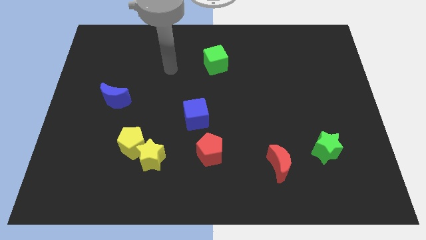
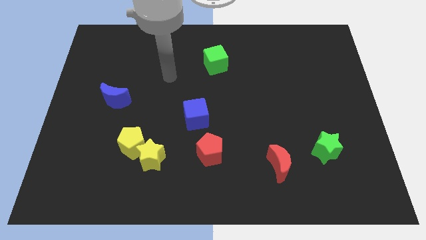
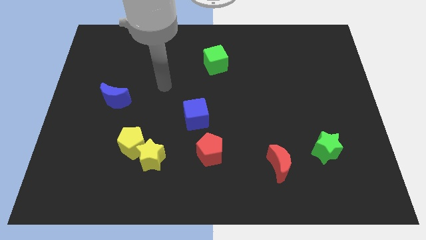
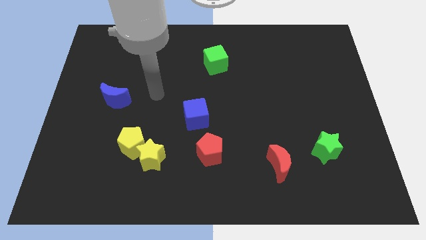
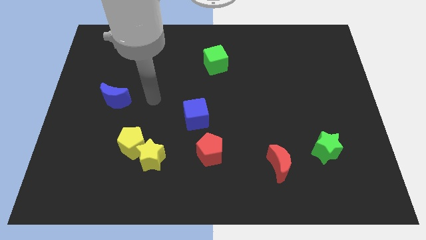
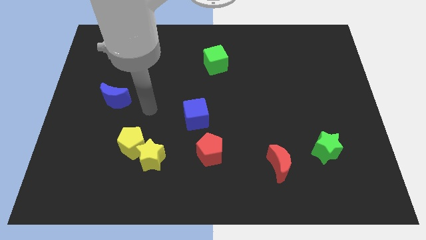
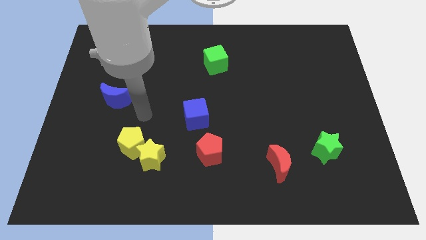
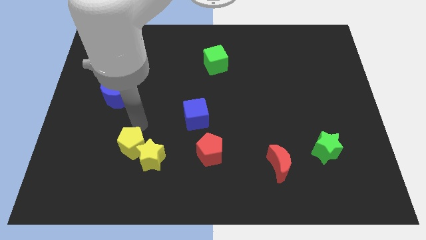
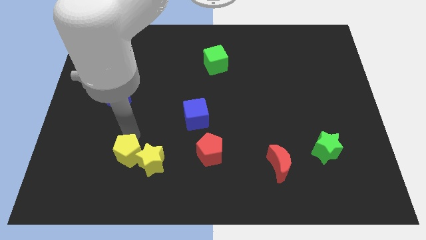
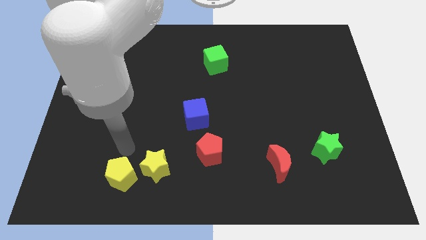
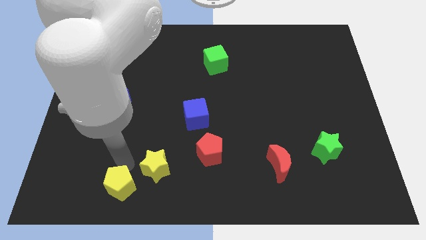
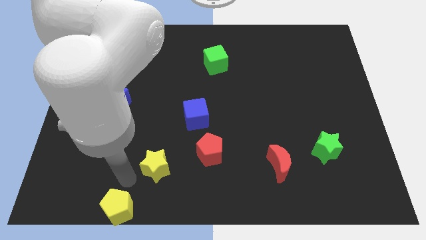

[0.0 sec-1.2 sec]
move the yellow star away from the yellow pentagon

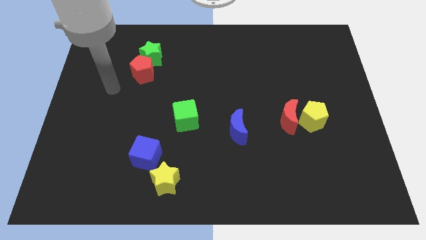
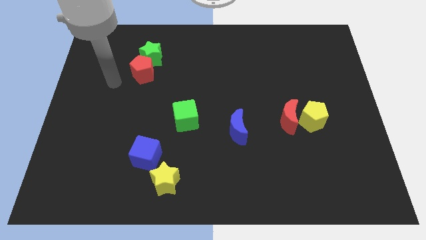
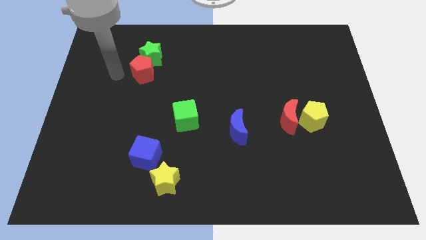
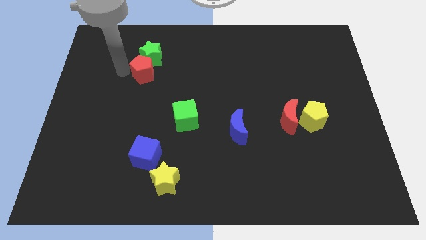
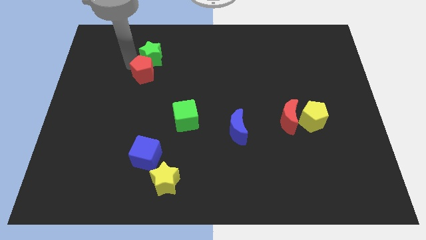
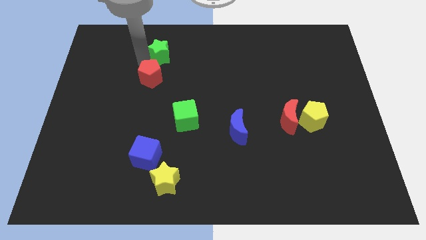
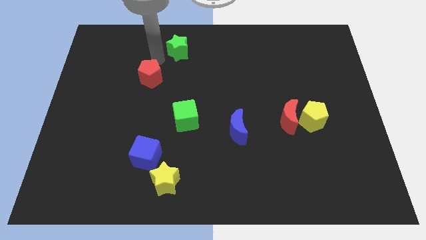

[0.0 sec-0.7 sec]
move the red pentagon away from the green star

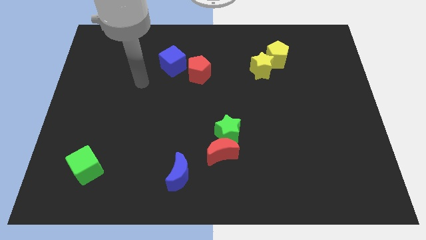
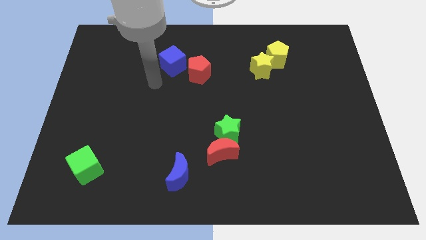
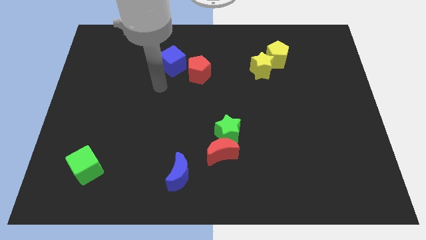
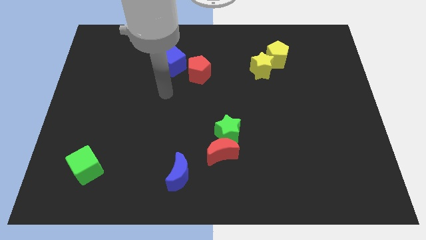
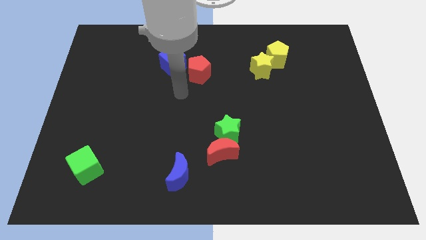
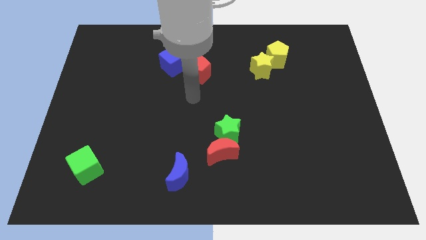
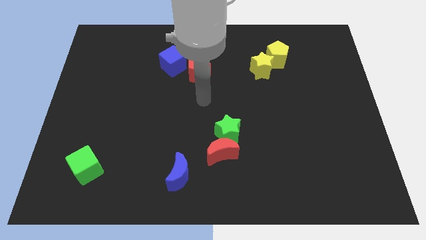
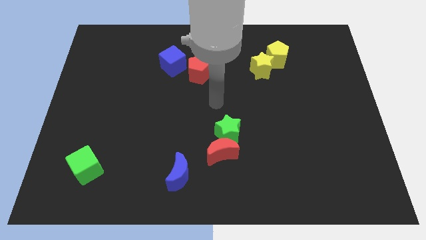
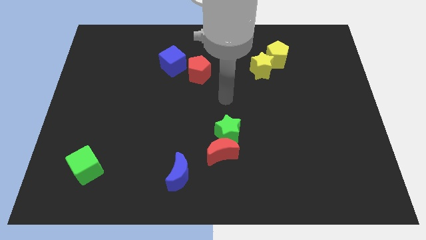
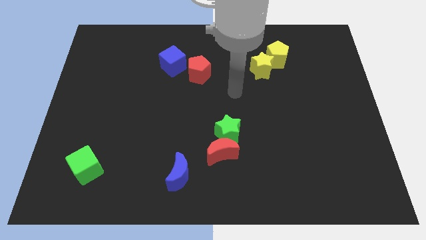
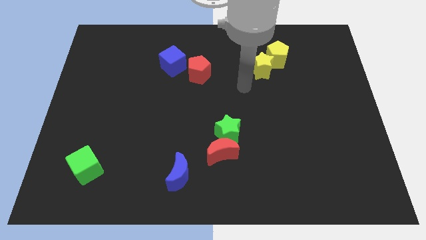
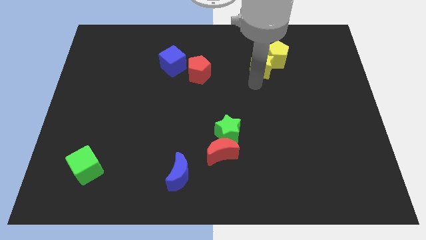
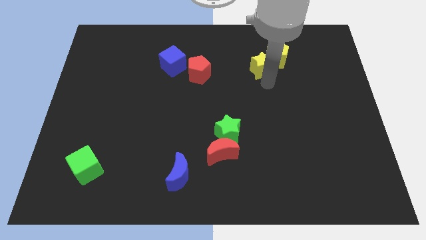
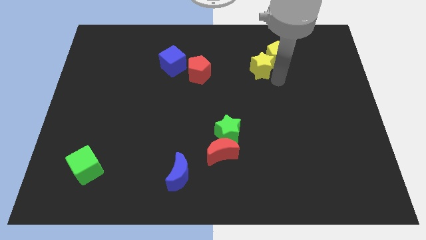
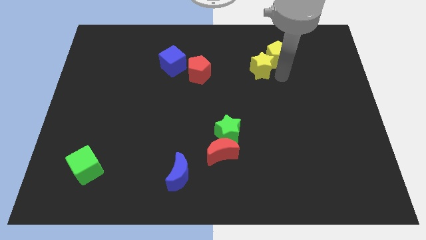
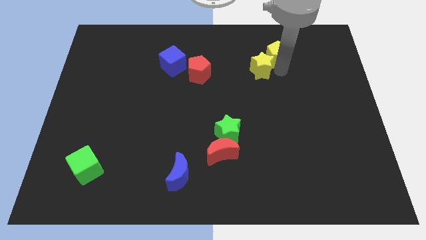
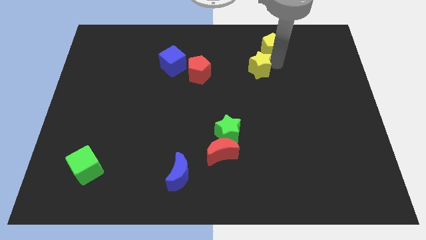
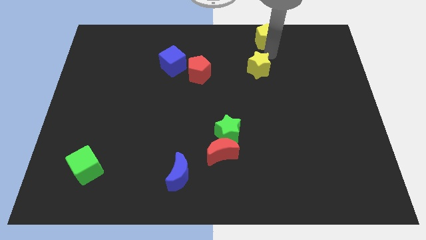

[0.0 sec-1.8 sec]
pull the yellow star apart from the yellow pentagon

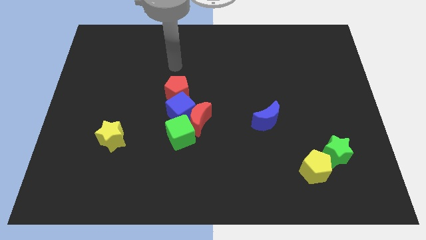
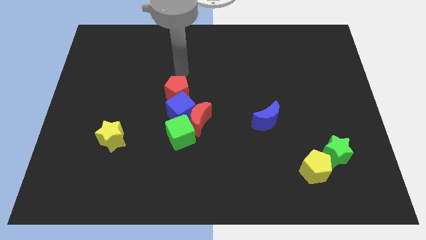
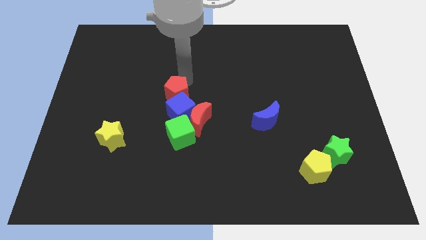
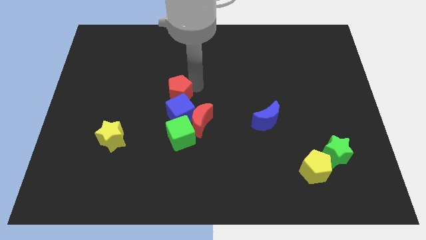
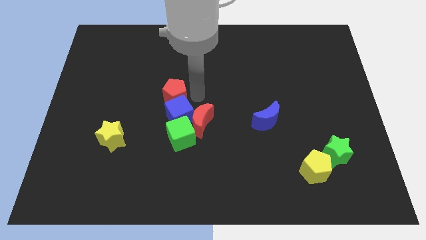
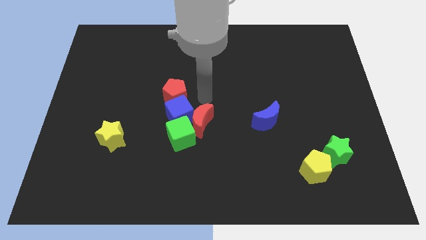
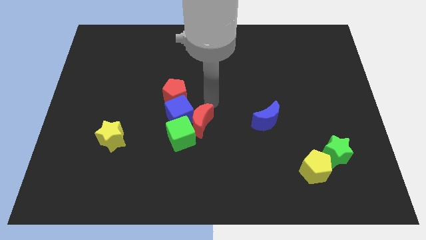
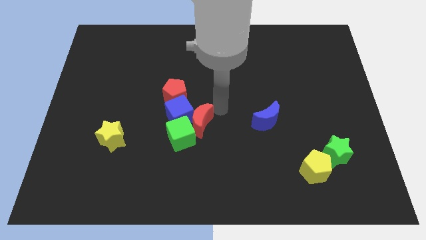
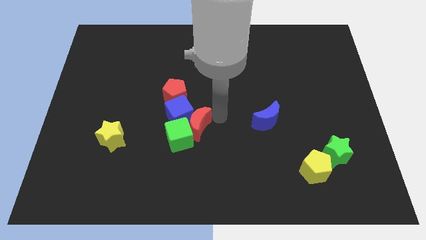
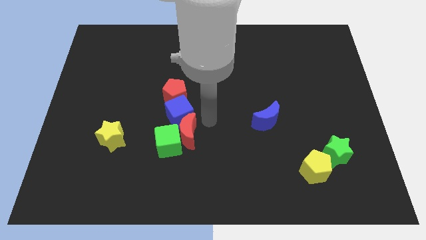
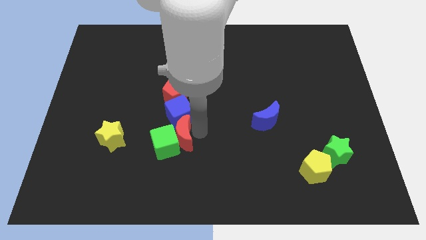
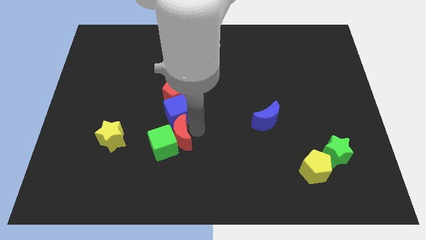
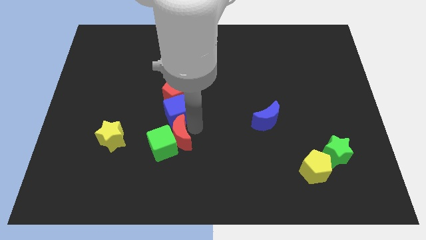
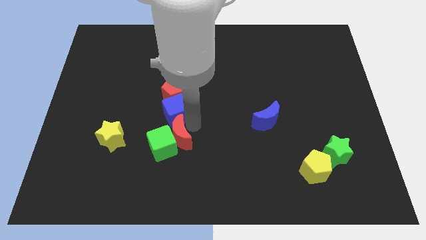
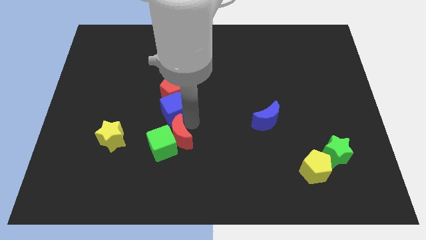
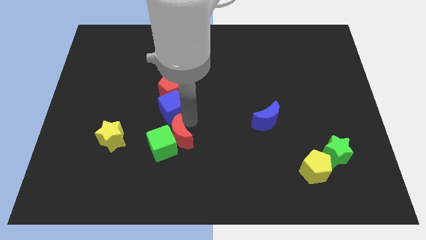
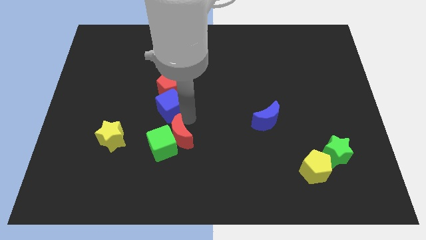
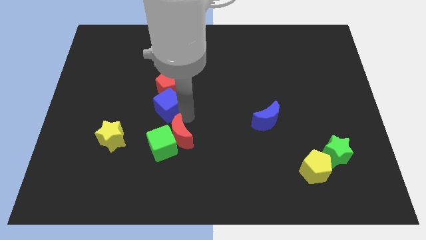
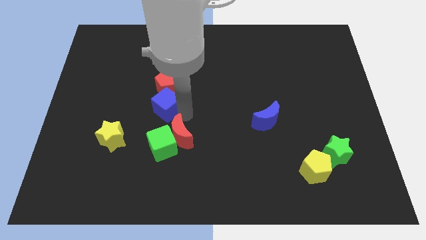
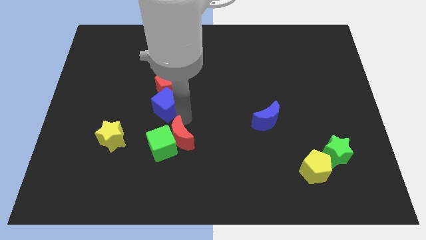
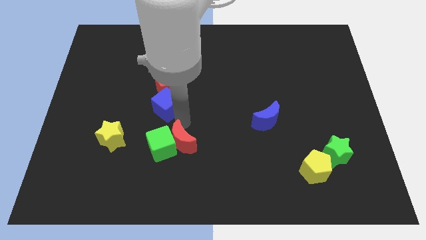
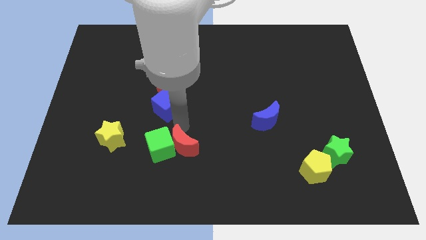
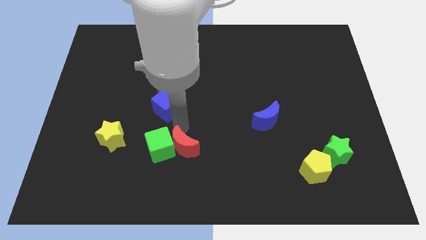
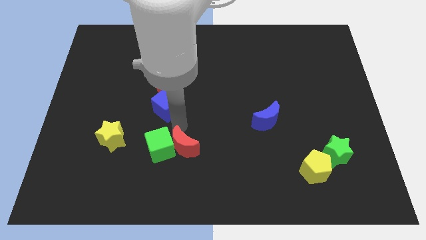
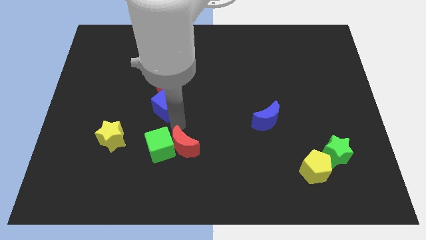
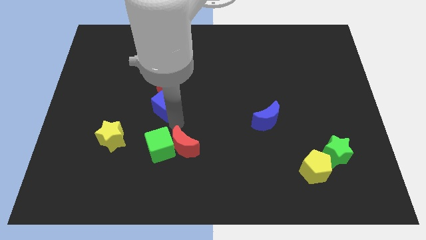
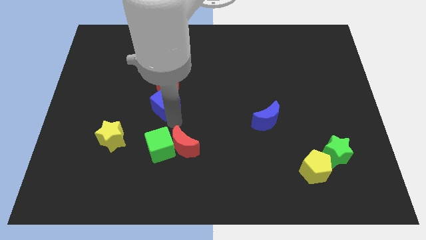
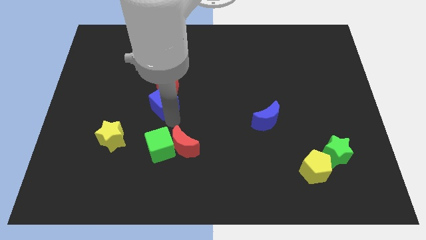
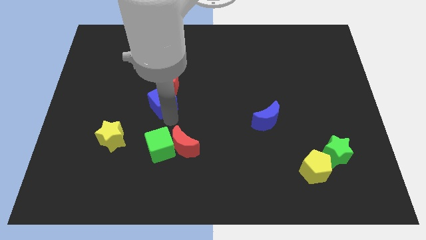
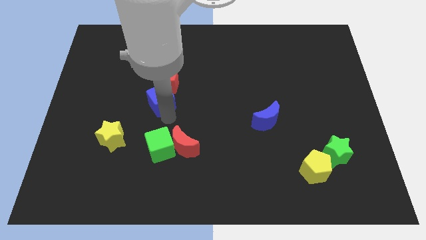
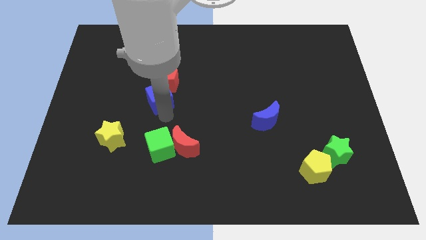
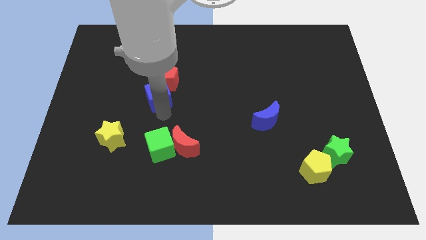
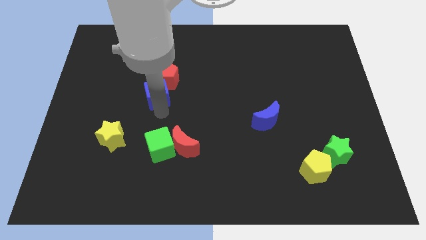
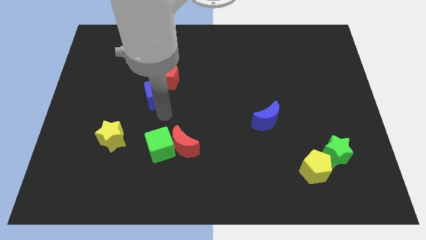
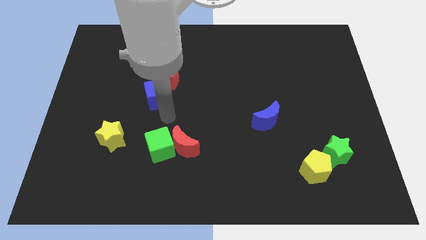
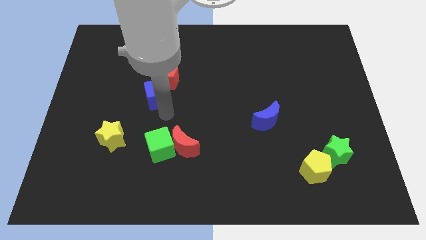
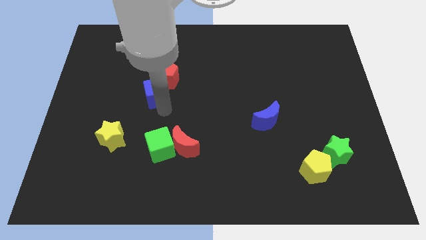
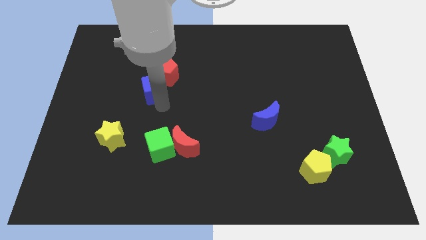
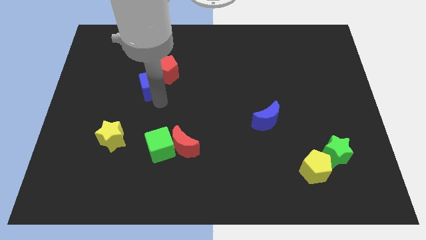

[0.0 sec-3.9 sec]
separate the blue cube from the clump

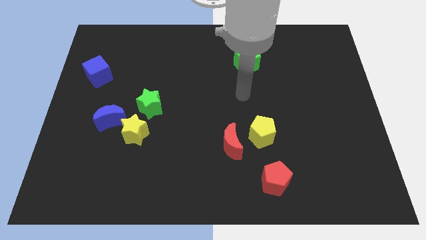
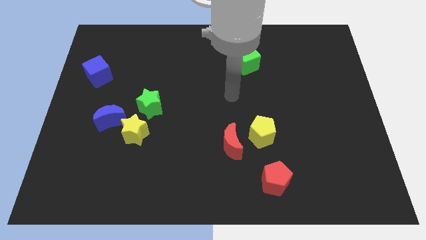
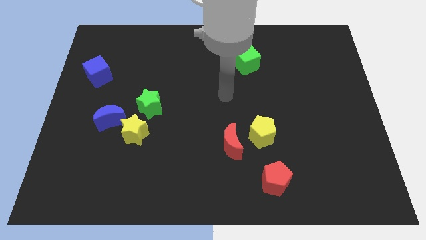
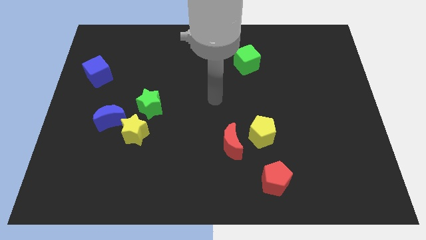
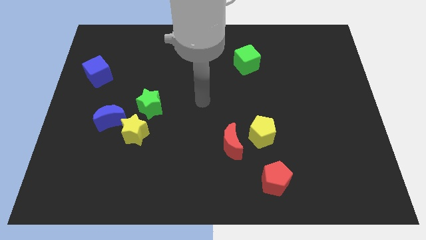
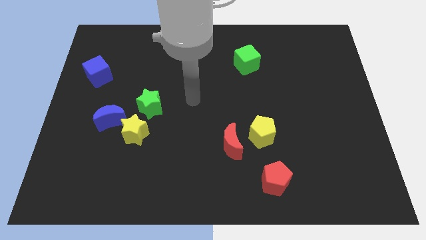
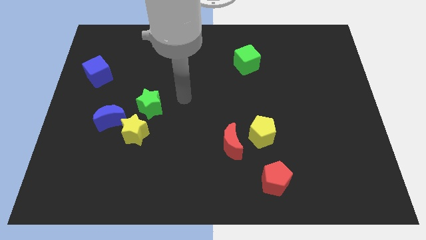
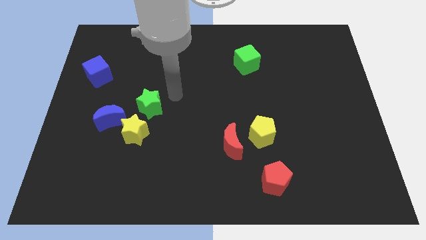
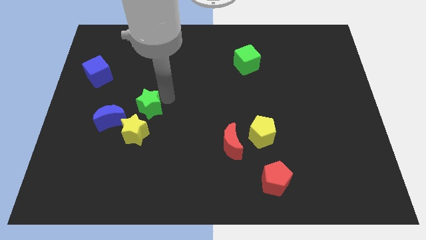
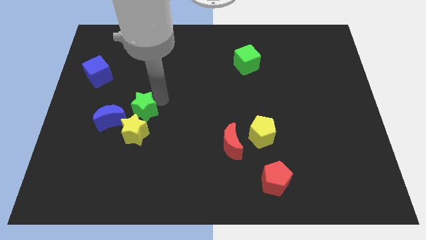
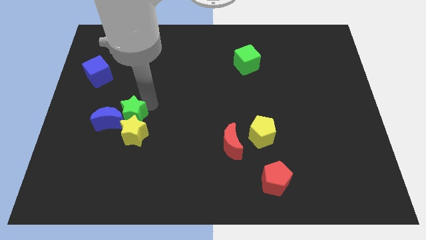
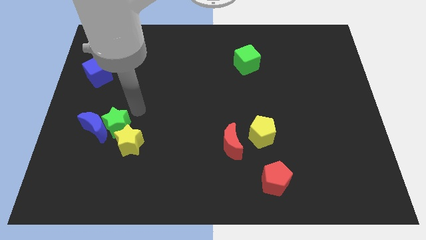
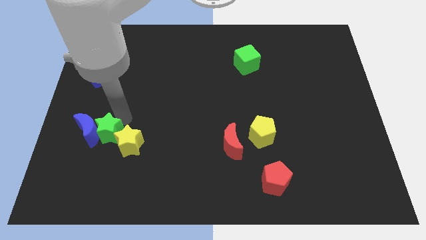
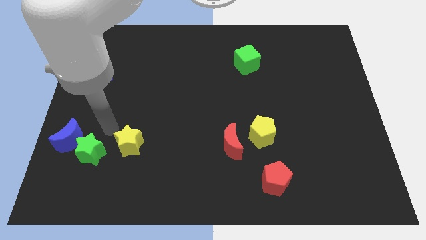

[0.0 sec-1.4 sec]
pull the yellow star apart from the blue moon and green star

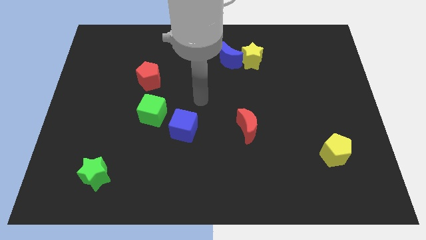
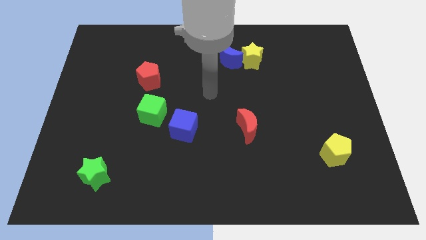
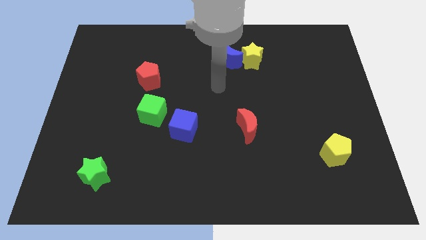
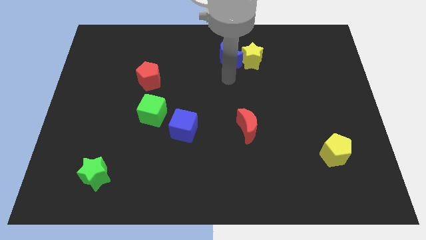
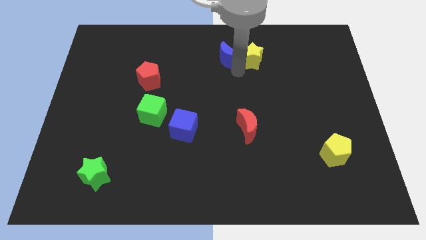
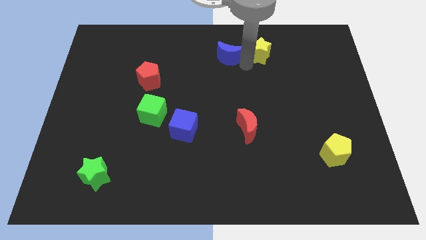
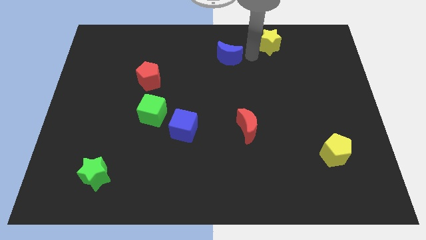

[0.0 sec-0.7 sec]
pull the blue moon apart from the yellow star
